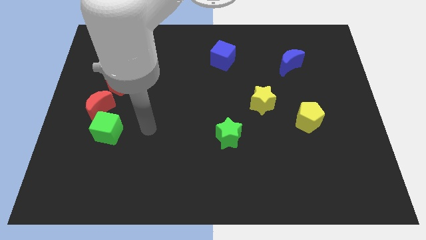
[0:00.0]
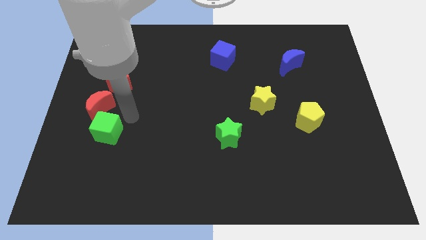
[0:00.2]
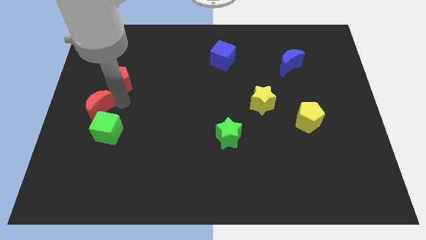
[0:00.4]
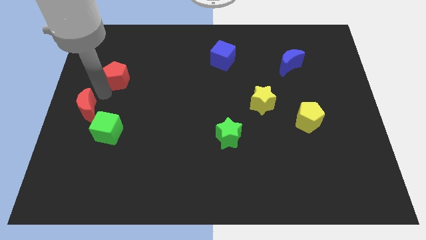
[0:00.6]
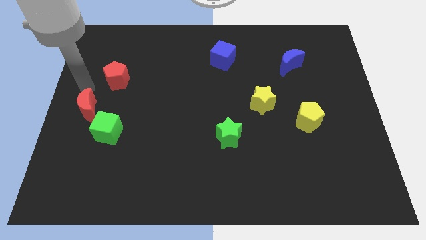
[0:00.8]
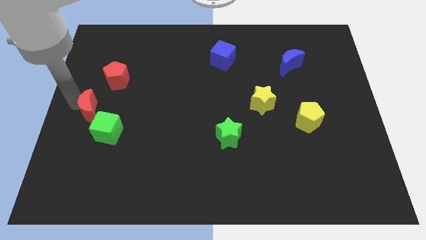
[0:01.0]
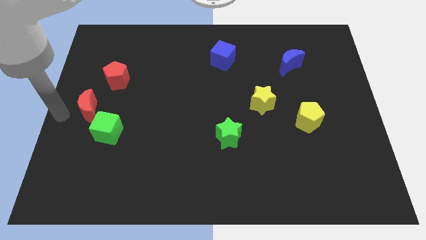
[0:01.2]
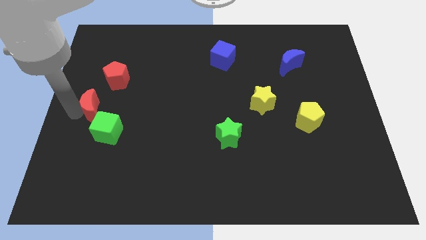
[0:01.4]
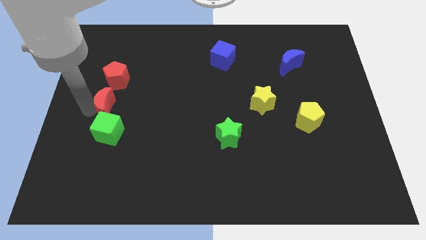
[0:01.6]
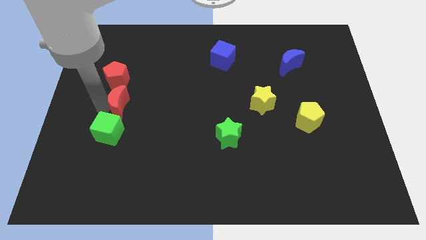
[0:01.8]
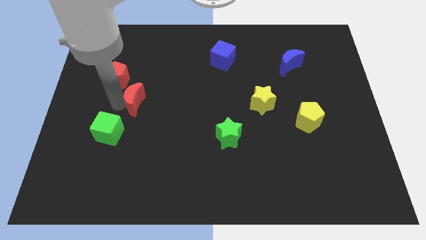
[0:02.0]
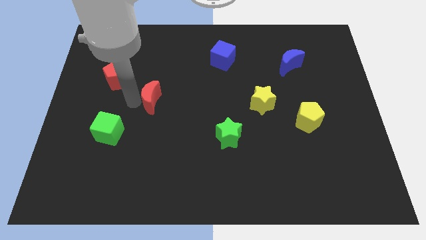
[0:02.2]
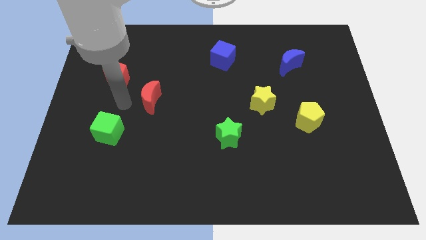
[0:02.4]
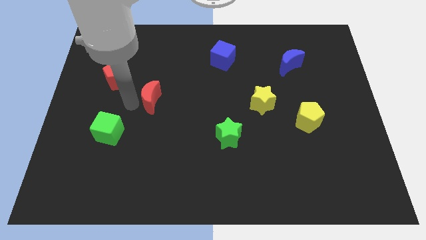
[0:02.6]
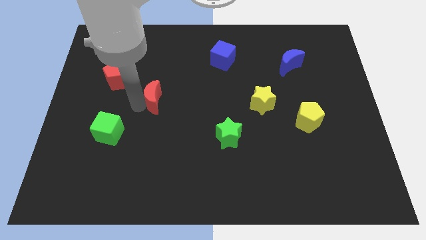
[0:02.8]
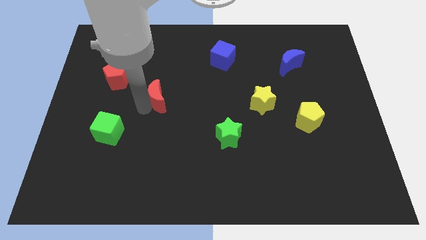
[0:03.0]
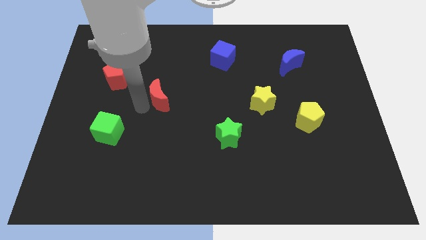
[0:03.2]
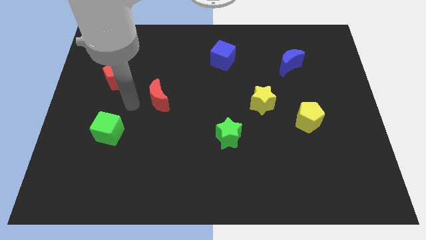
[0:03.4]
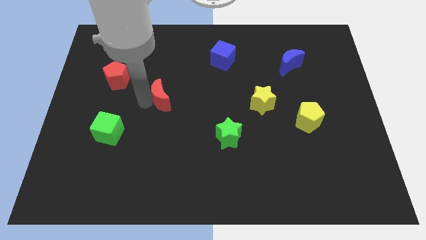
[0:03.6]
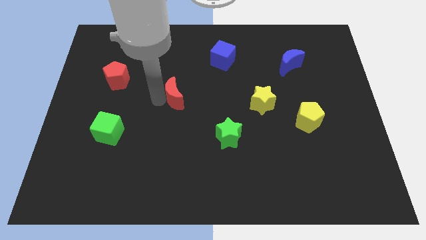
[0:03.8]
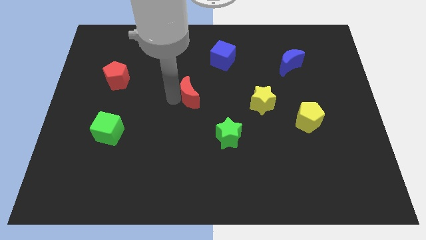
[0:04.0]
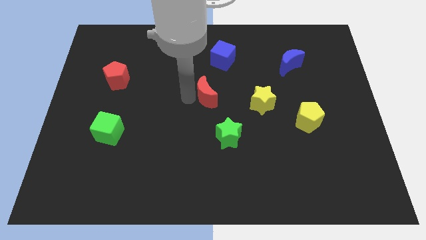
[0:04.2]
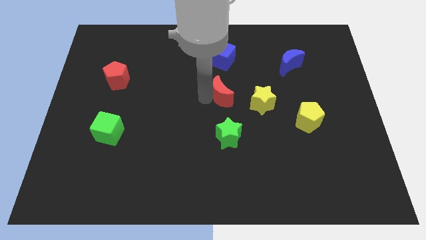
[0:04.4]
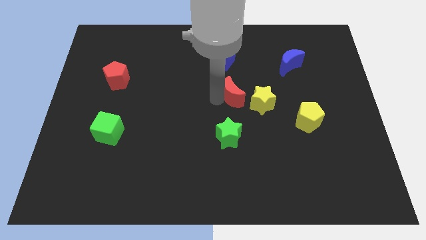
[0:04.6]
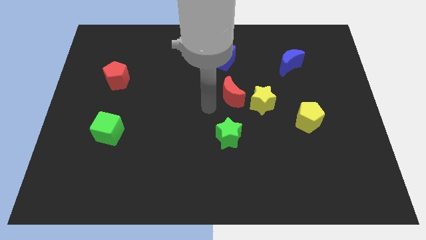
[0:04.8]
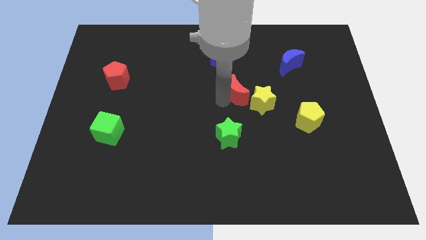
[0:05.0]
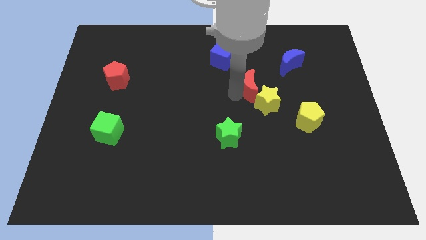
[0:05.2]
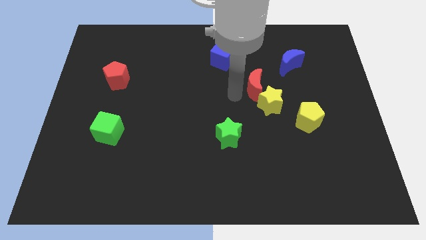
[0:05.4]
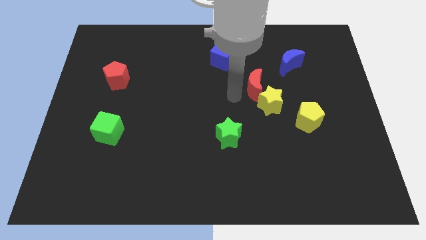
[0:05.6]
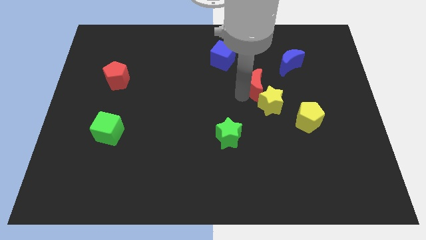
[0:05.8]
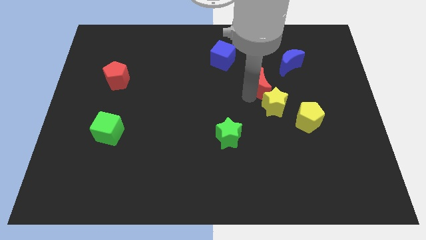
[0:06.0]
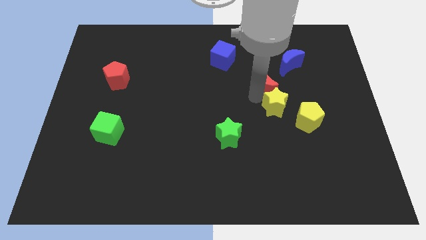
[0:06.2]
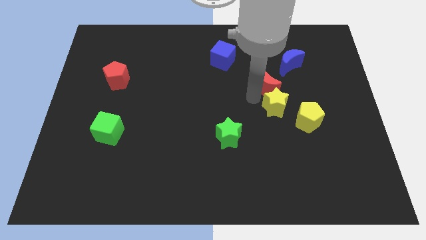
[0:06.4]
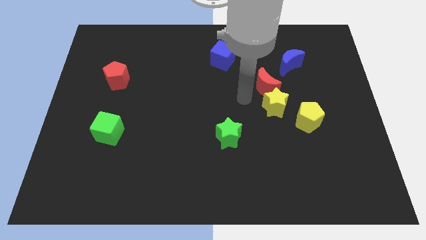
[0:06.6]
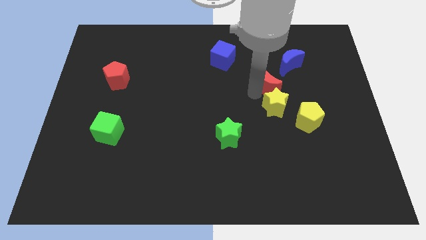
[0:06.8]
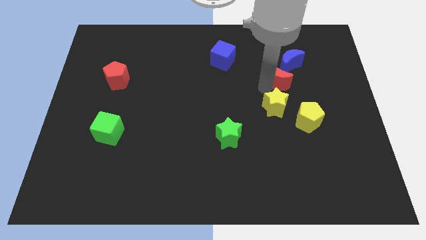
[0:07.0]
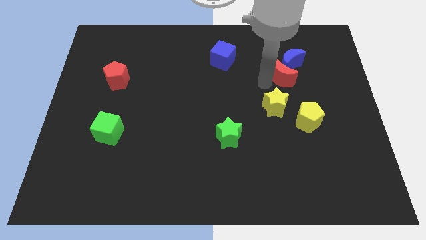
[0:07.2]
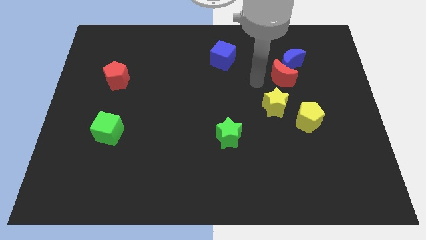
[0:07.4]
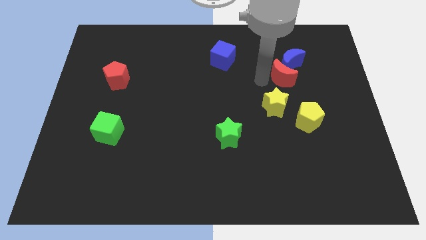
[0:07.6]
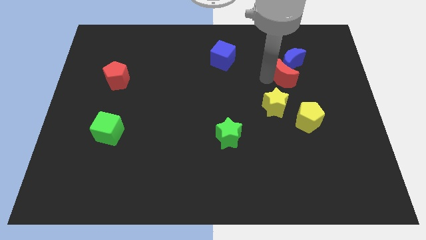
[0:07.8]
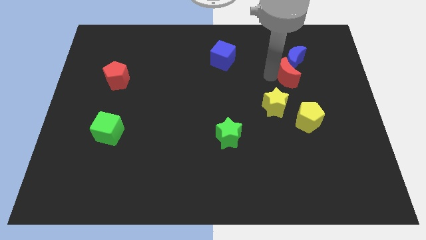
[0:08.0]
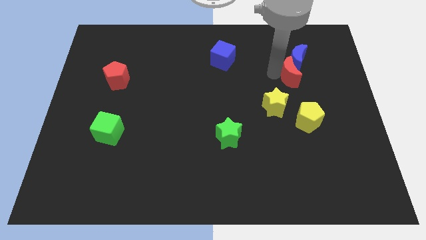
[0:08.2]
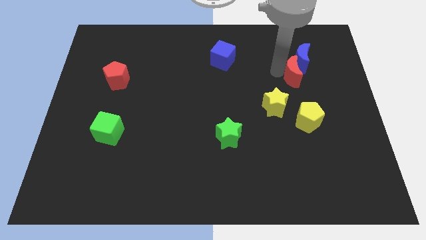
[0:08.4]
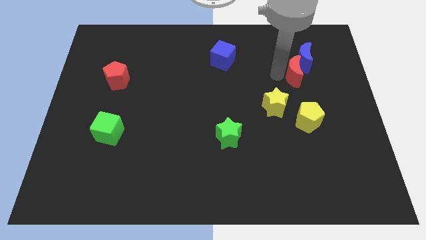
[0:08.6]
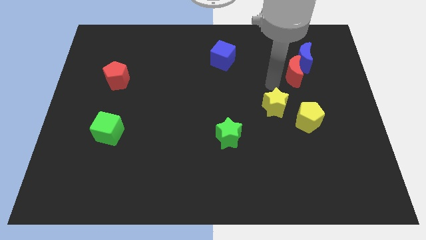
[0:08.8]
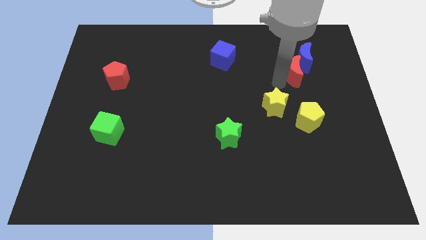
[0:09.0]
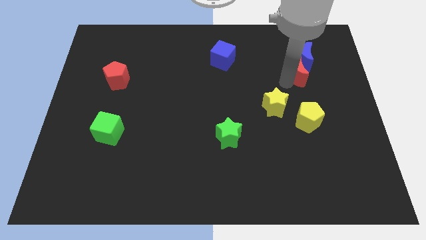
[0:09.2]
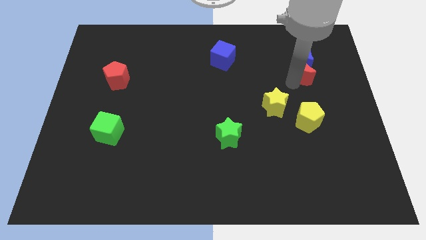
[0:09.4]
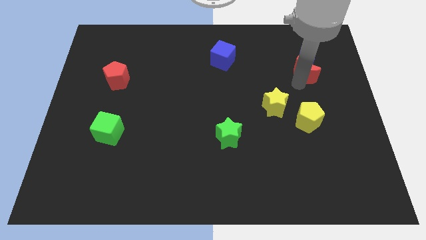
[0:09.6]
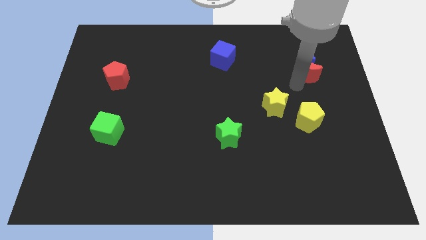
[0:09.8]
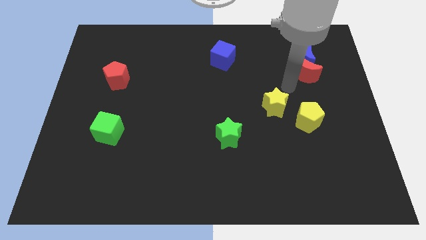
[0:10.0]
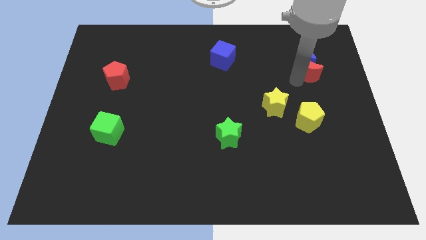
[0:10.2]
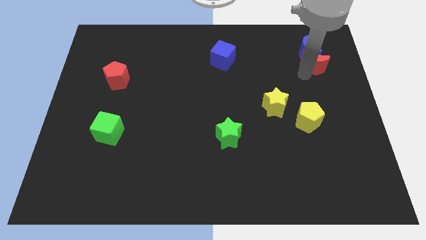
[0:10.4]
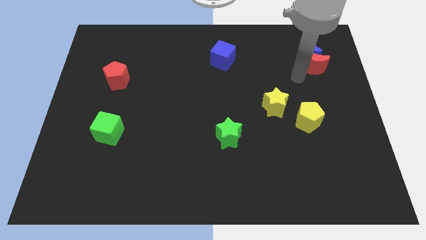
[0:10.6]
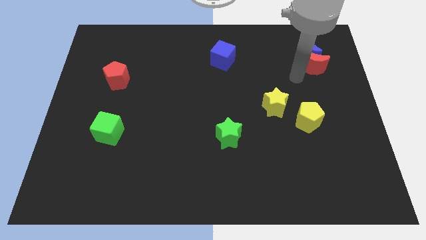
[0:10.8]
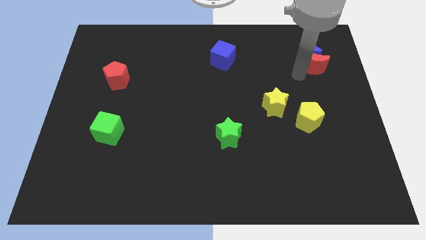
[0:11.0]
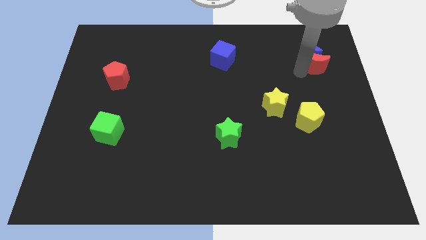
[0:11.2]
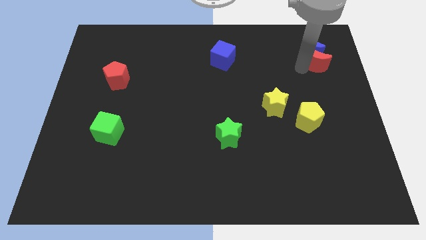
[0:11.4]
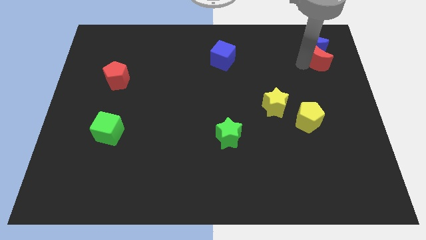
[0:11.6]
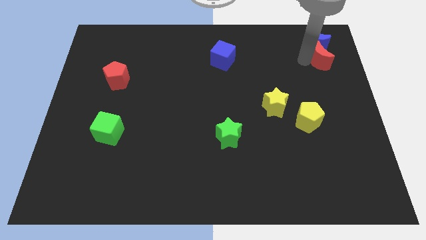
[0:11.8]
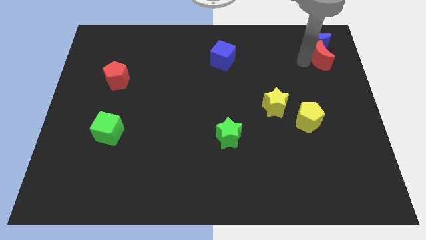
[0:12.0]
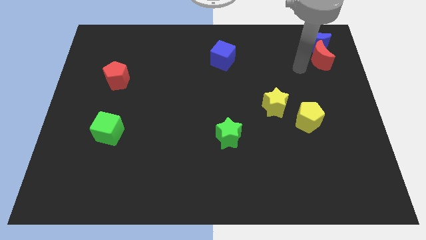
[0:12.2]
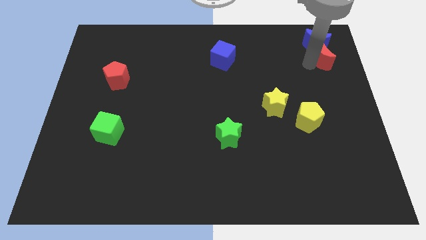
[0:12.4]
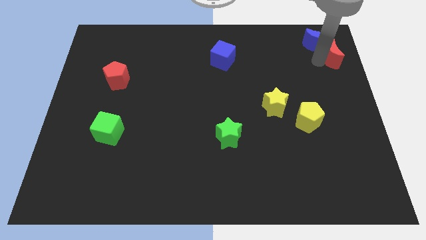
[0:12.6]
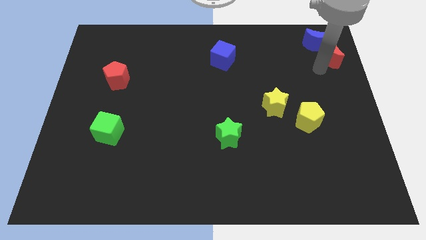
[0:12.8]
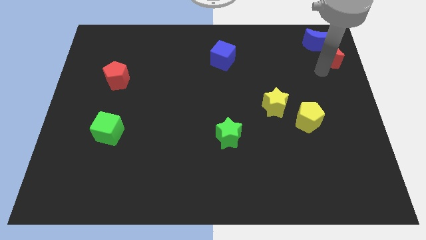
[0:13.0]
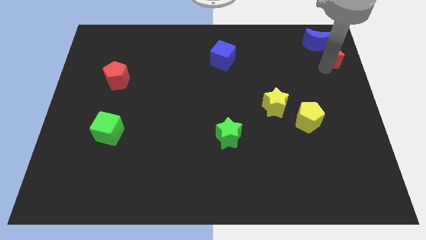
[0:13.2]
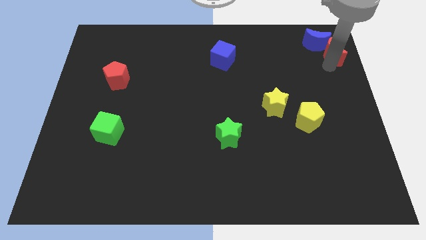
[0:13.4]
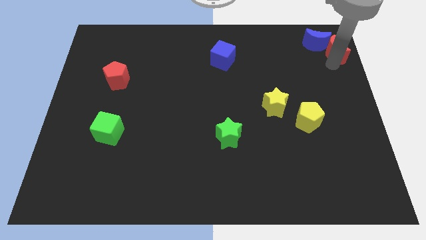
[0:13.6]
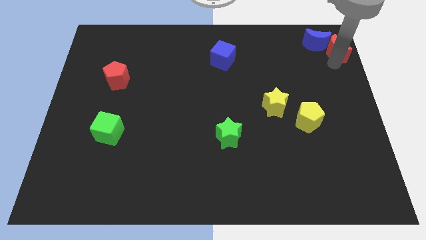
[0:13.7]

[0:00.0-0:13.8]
push the red moon to the top right corner
